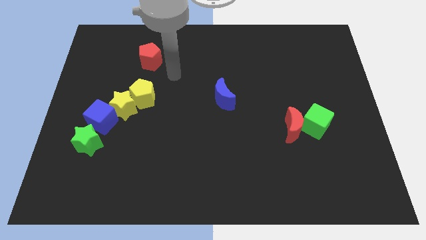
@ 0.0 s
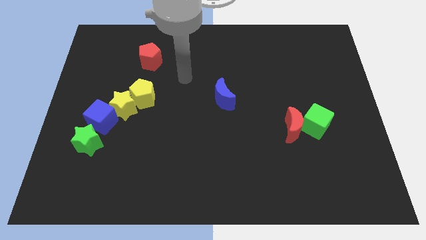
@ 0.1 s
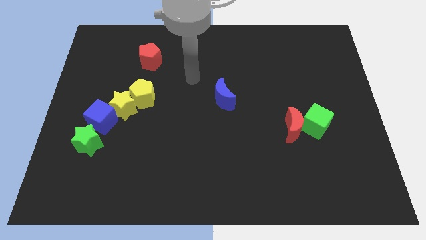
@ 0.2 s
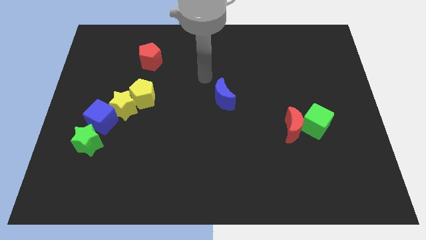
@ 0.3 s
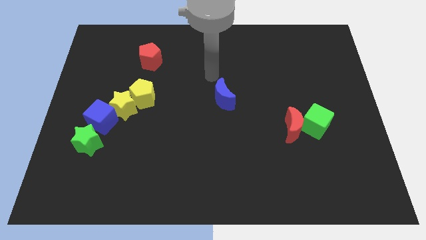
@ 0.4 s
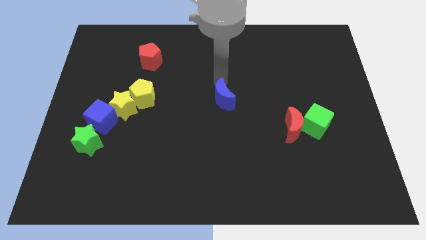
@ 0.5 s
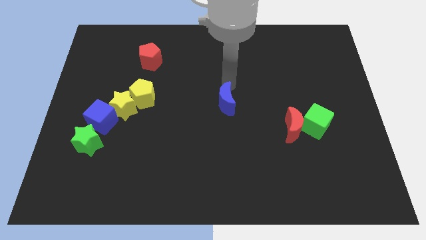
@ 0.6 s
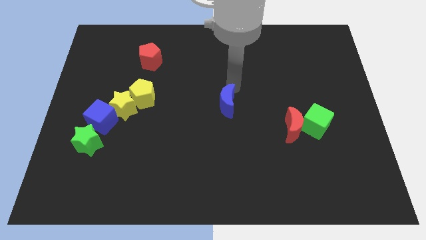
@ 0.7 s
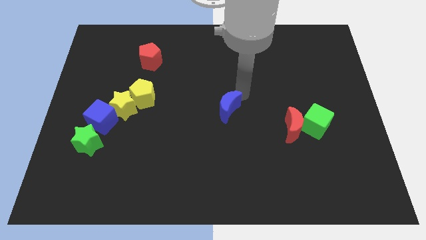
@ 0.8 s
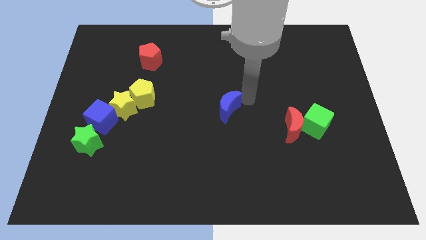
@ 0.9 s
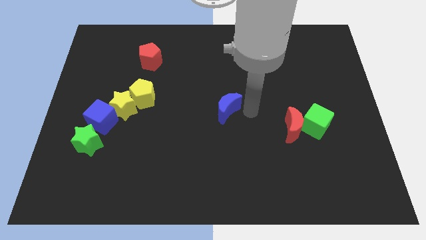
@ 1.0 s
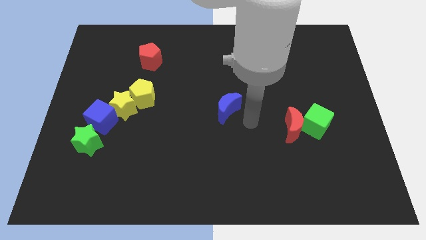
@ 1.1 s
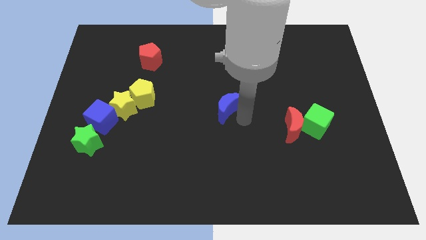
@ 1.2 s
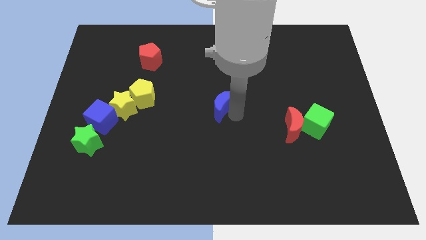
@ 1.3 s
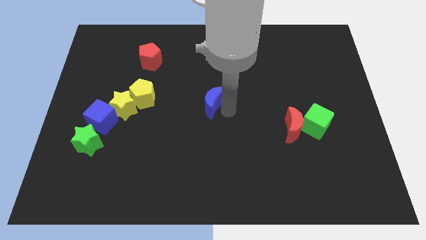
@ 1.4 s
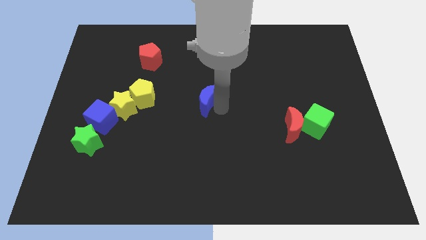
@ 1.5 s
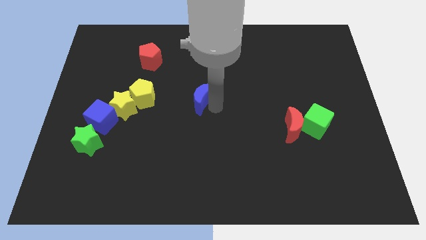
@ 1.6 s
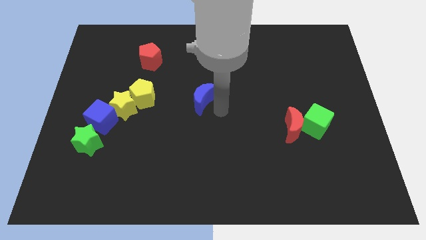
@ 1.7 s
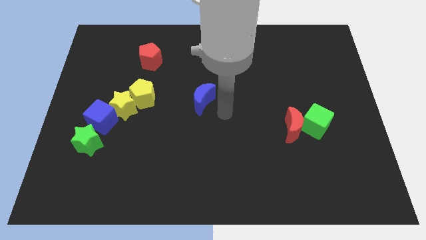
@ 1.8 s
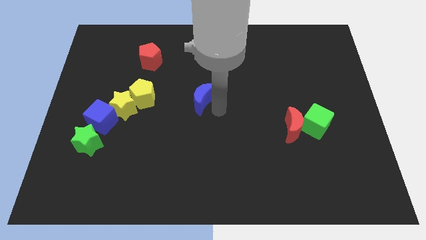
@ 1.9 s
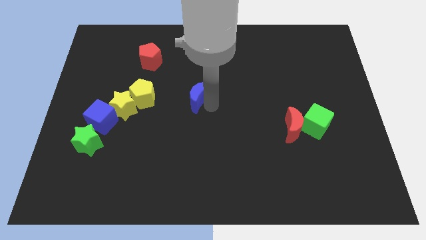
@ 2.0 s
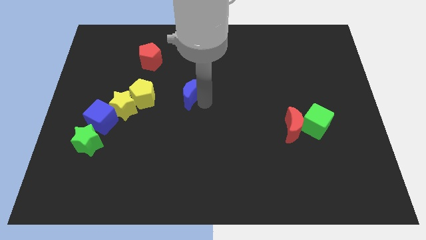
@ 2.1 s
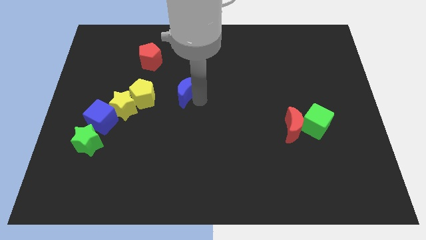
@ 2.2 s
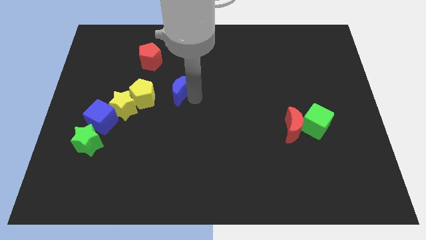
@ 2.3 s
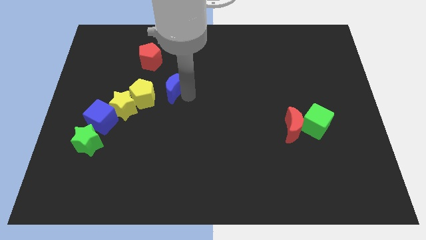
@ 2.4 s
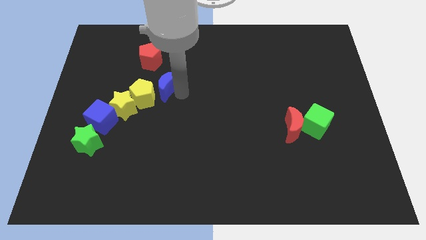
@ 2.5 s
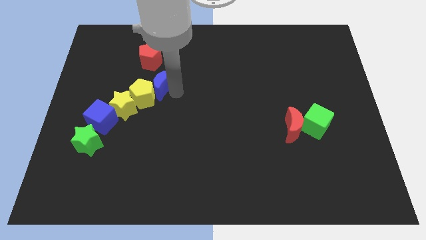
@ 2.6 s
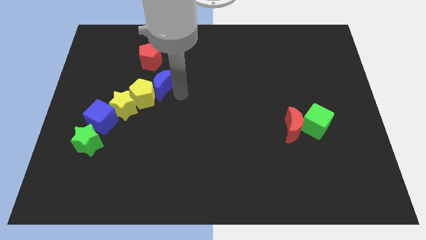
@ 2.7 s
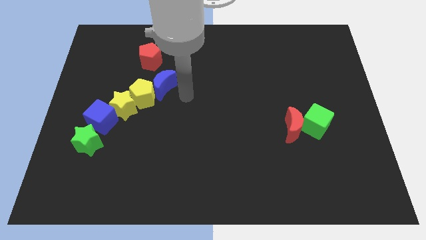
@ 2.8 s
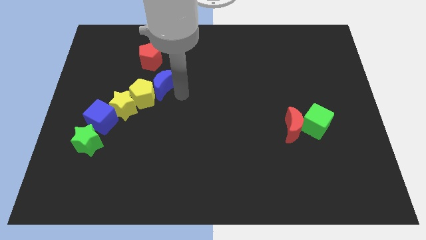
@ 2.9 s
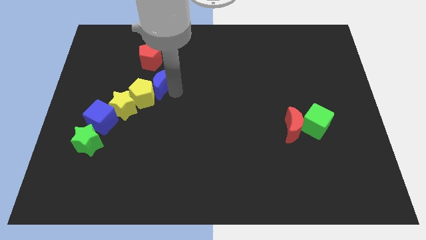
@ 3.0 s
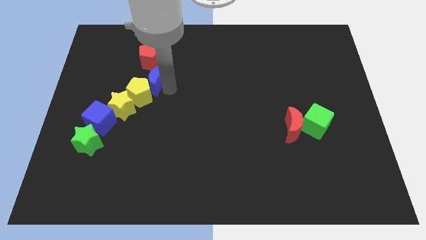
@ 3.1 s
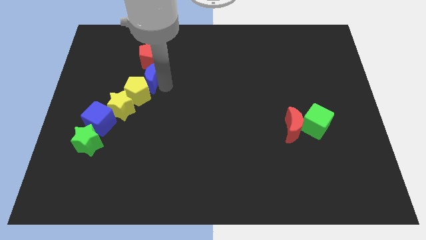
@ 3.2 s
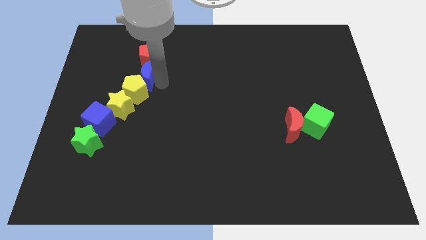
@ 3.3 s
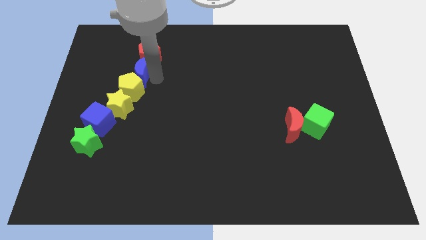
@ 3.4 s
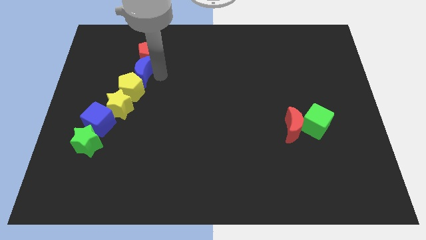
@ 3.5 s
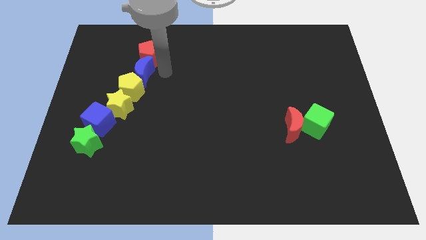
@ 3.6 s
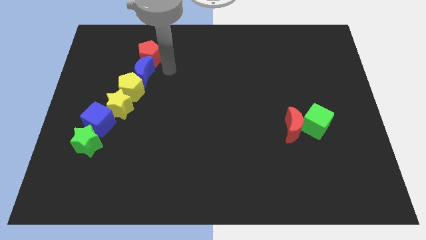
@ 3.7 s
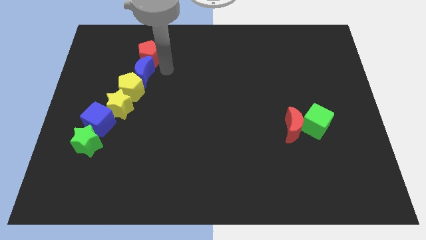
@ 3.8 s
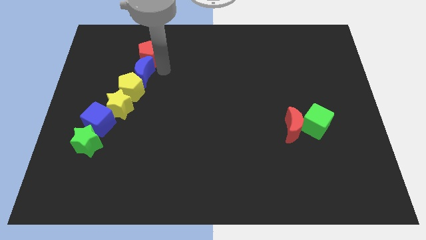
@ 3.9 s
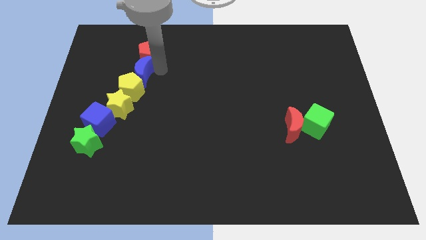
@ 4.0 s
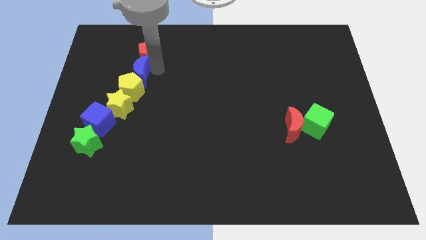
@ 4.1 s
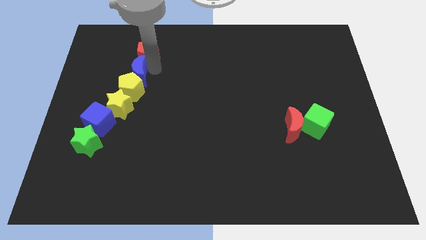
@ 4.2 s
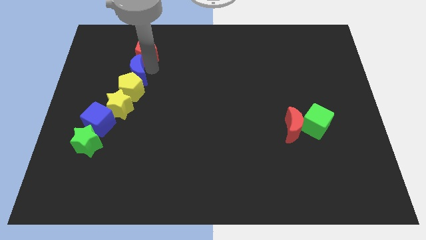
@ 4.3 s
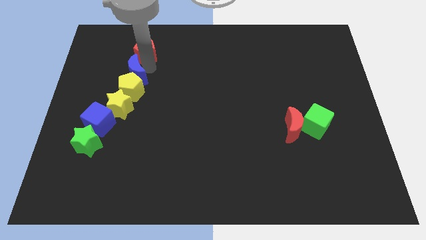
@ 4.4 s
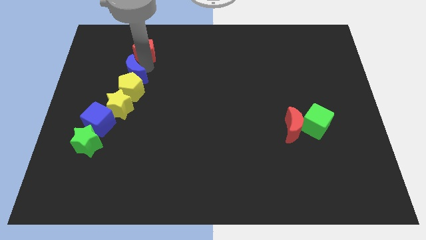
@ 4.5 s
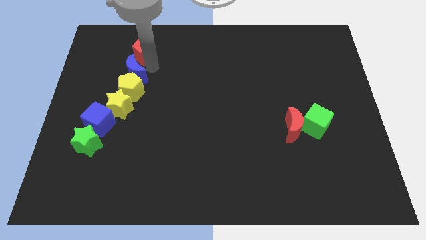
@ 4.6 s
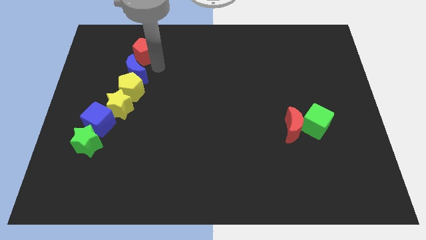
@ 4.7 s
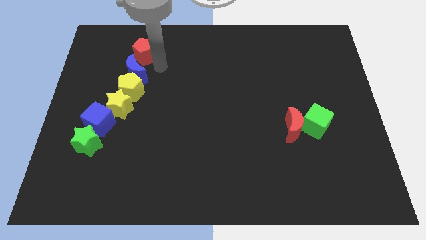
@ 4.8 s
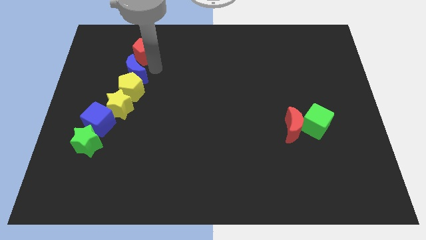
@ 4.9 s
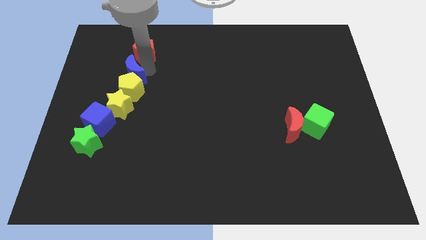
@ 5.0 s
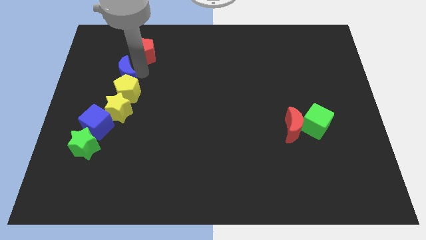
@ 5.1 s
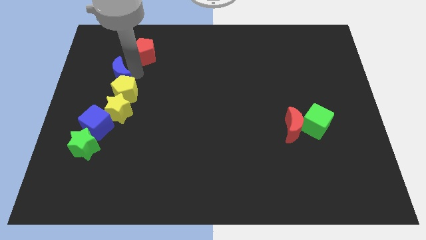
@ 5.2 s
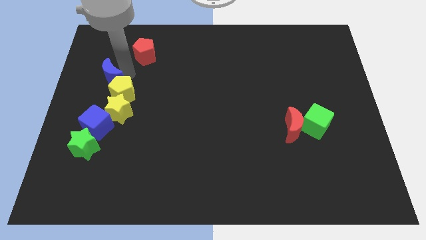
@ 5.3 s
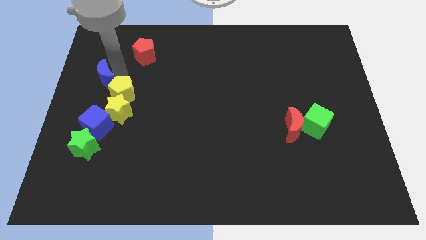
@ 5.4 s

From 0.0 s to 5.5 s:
move the blue moon to the left side of the board

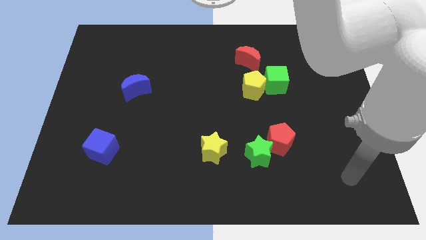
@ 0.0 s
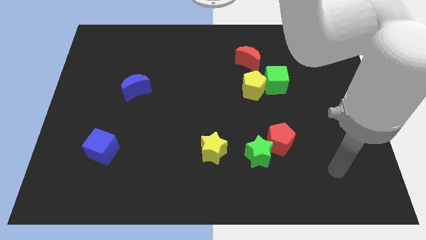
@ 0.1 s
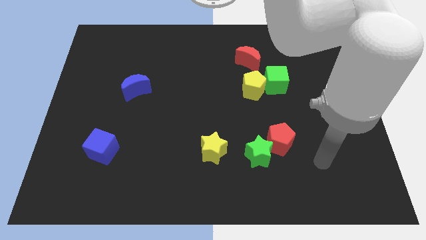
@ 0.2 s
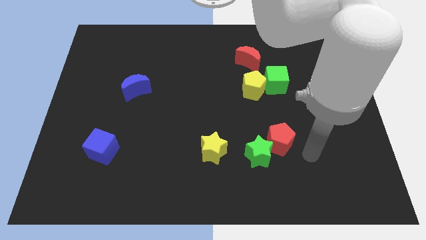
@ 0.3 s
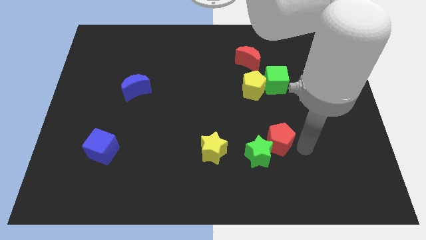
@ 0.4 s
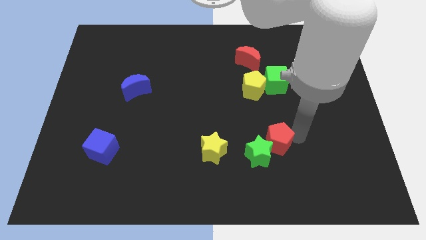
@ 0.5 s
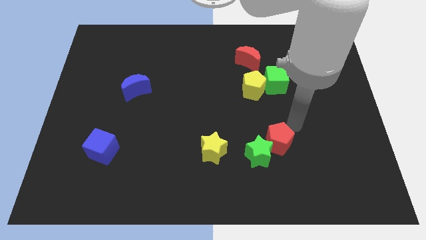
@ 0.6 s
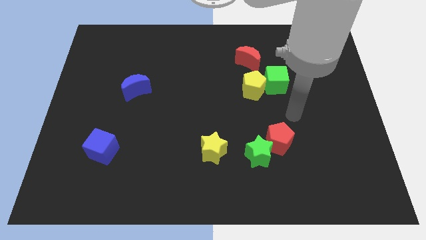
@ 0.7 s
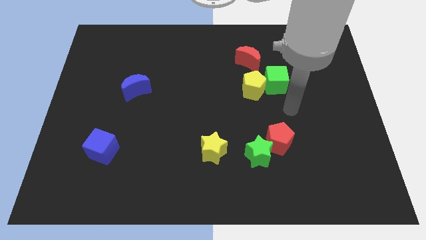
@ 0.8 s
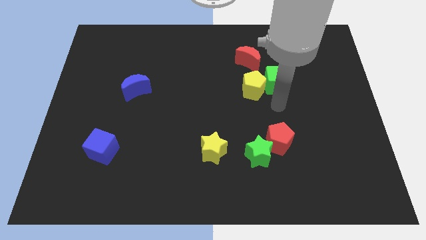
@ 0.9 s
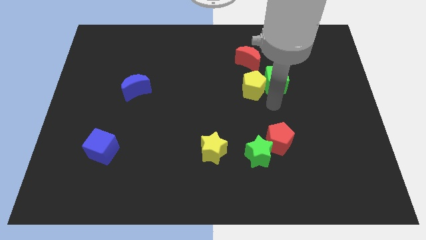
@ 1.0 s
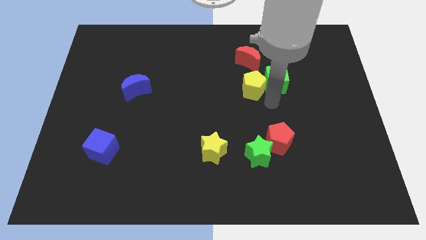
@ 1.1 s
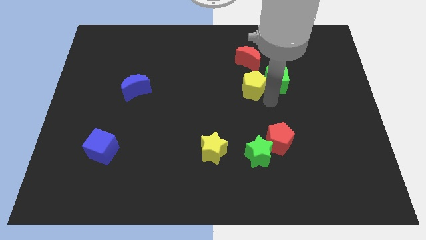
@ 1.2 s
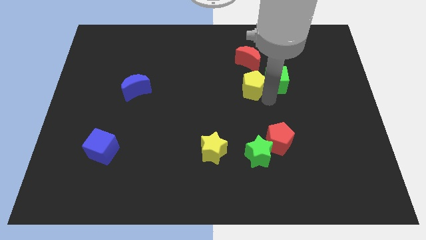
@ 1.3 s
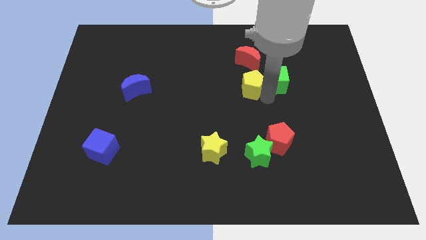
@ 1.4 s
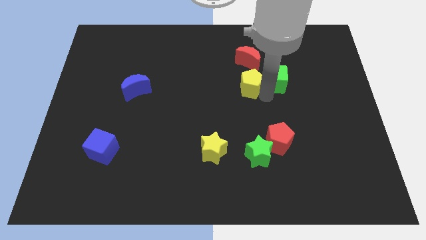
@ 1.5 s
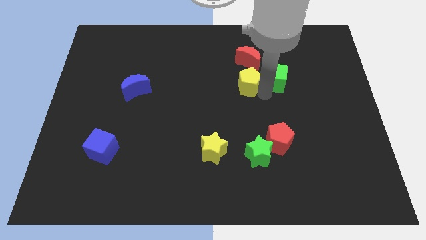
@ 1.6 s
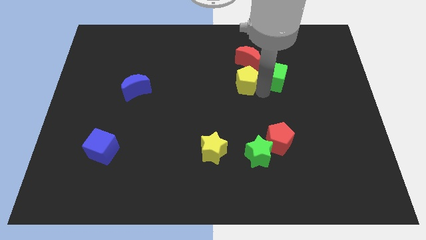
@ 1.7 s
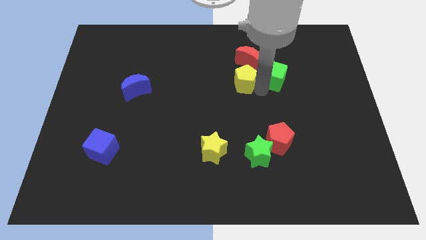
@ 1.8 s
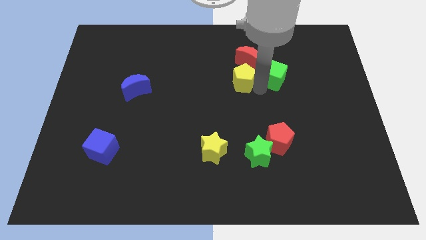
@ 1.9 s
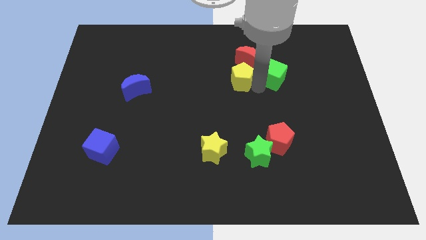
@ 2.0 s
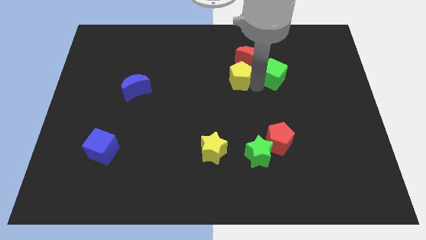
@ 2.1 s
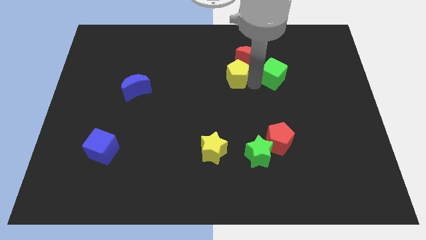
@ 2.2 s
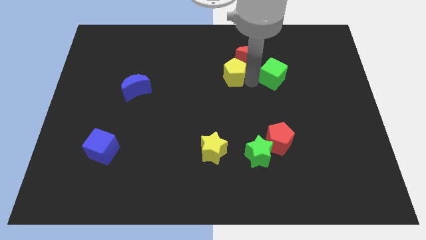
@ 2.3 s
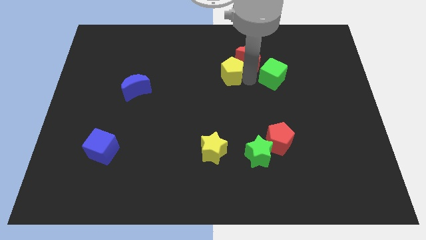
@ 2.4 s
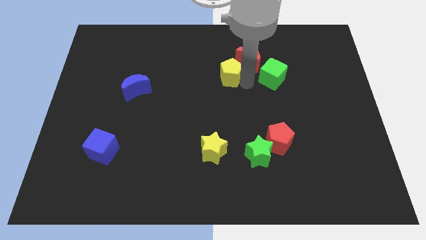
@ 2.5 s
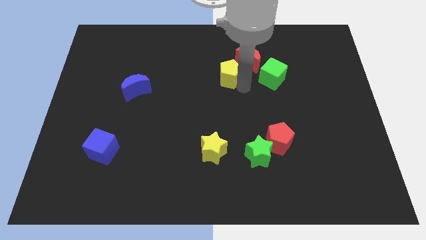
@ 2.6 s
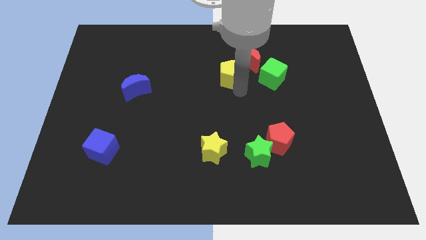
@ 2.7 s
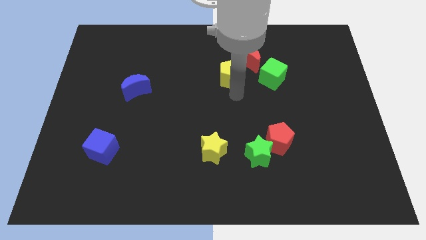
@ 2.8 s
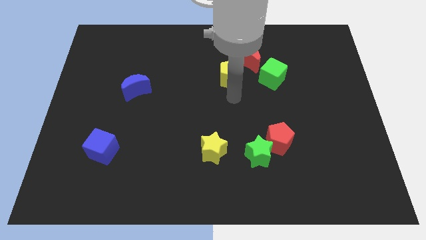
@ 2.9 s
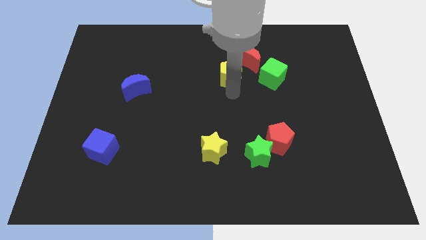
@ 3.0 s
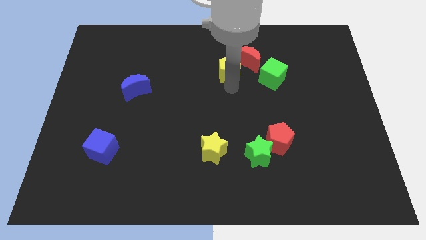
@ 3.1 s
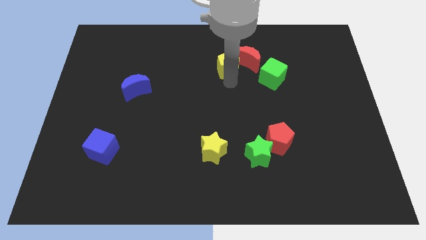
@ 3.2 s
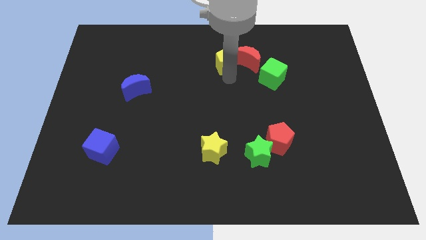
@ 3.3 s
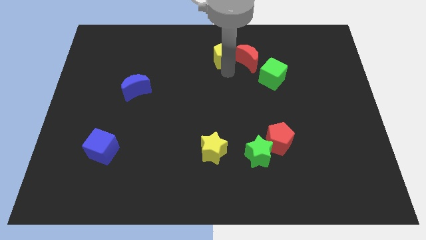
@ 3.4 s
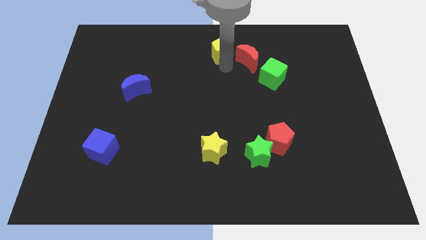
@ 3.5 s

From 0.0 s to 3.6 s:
put the yellow pentagon to the top side
